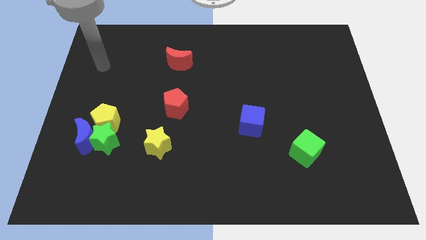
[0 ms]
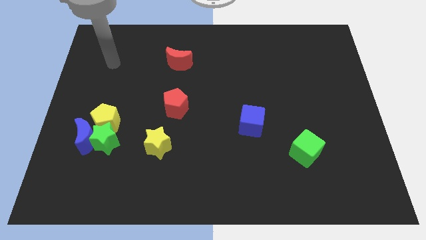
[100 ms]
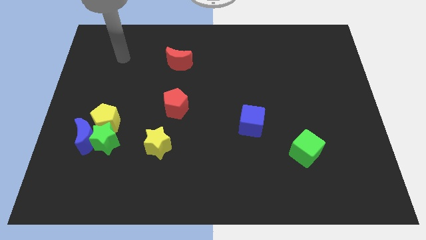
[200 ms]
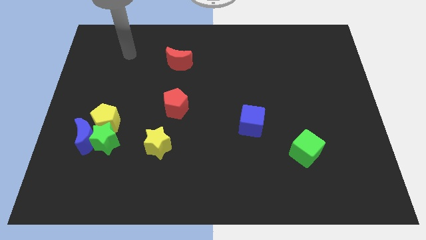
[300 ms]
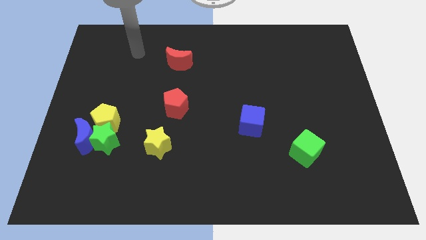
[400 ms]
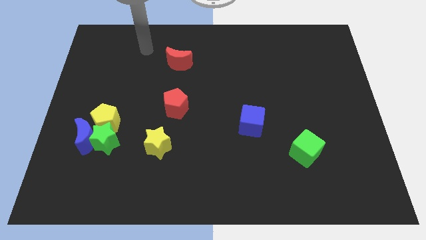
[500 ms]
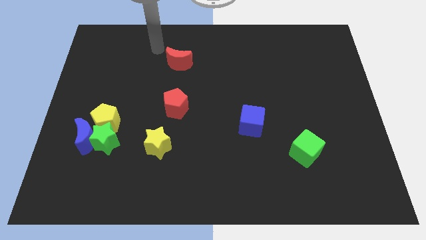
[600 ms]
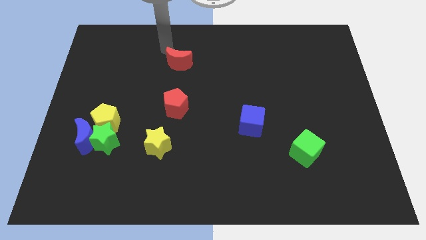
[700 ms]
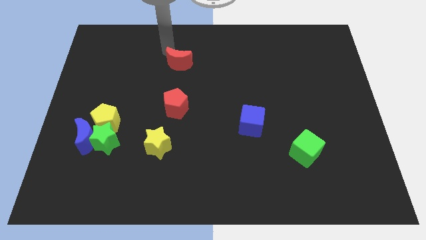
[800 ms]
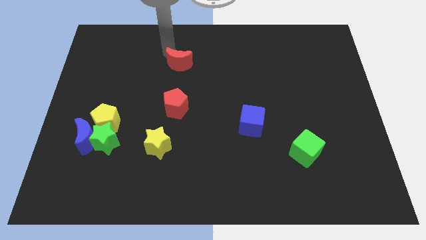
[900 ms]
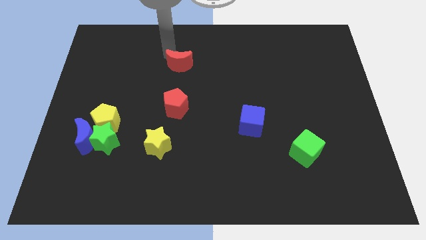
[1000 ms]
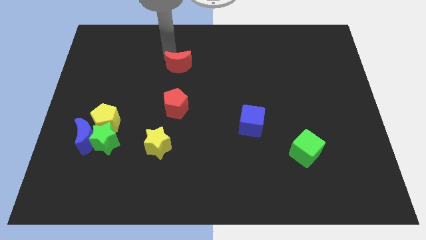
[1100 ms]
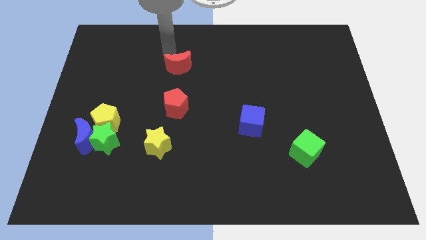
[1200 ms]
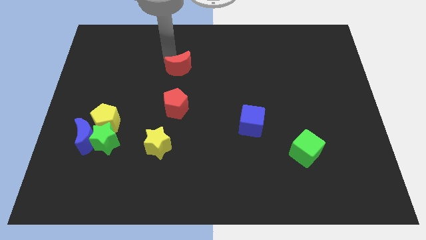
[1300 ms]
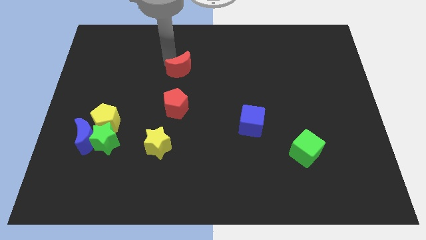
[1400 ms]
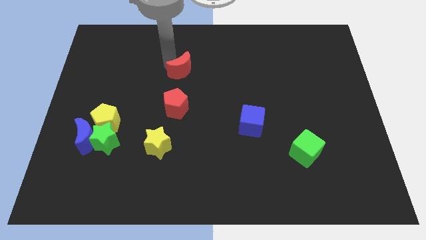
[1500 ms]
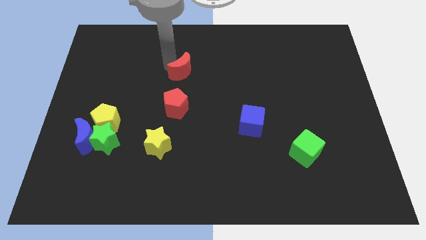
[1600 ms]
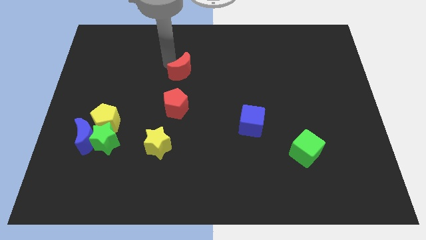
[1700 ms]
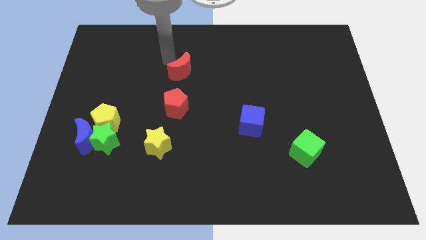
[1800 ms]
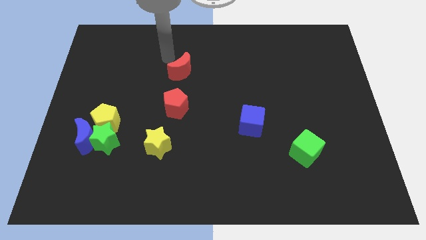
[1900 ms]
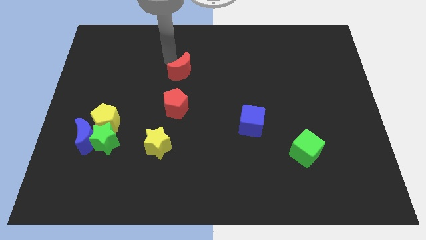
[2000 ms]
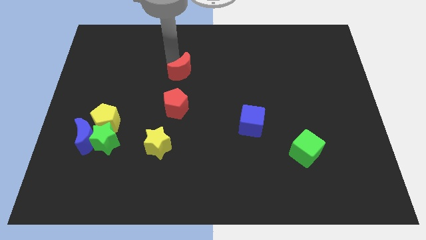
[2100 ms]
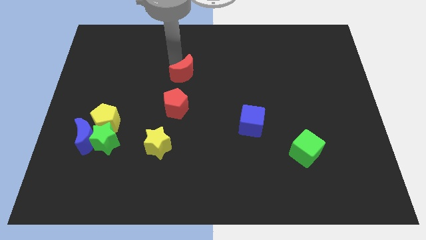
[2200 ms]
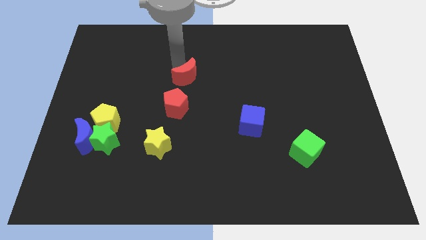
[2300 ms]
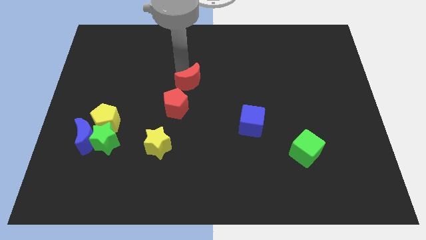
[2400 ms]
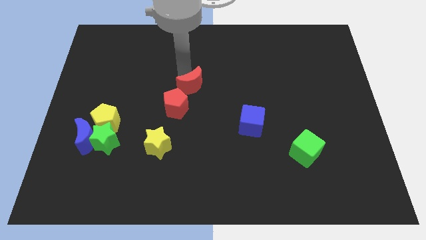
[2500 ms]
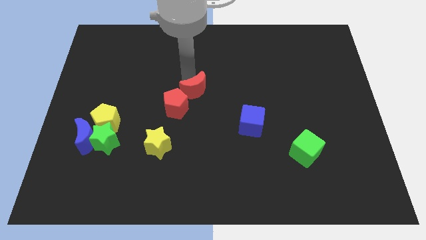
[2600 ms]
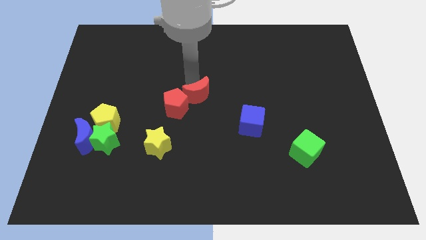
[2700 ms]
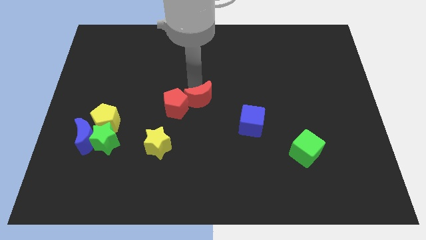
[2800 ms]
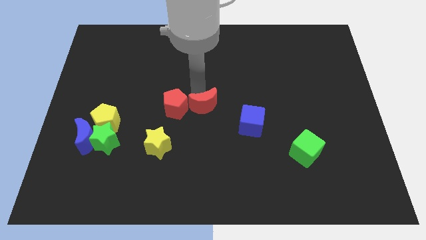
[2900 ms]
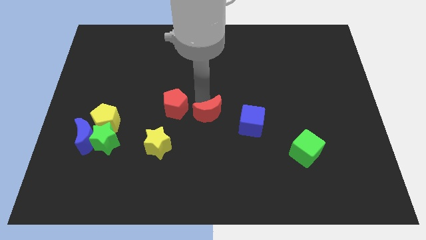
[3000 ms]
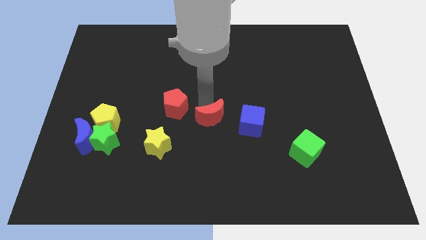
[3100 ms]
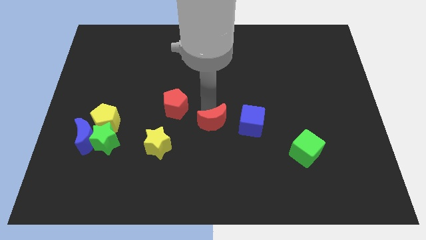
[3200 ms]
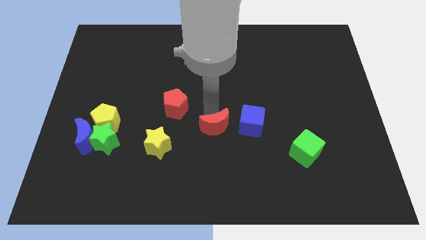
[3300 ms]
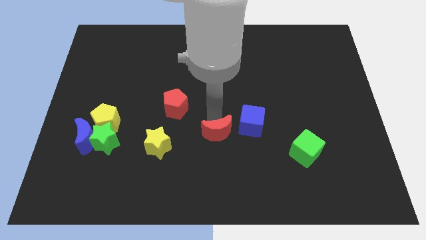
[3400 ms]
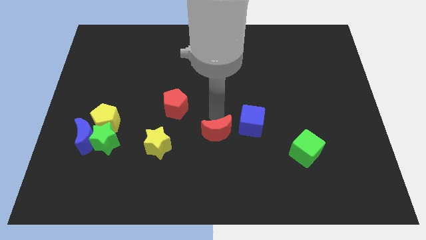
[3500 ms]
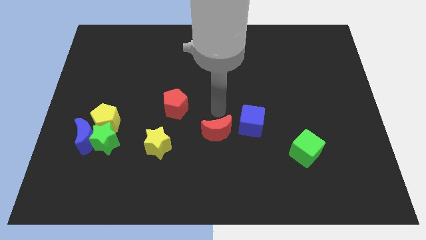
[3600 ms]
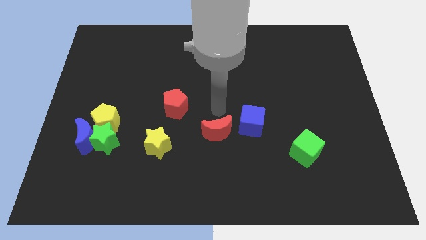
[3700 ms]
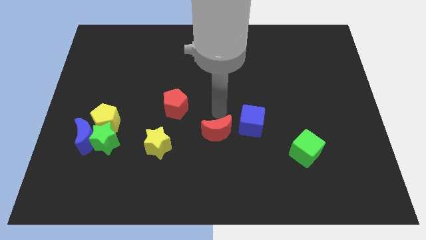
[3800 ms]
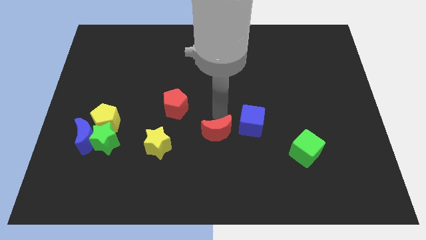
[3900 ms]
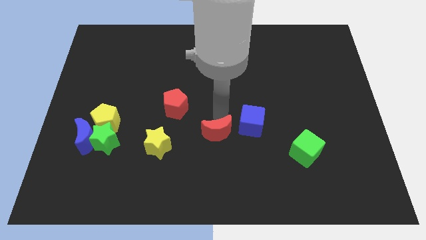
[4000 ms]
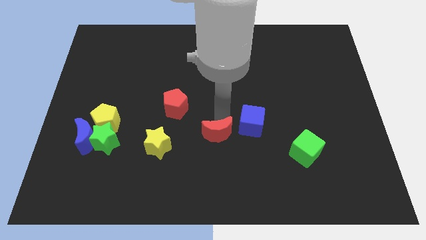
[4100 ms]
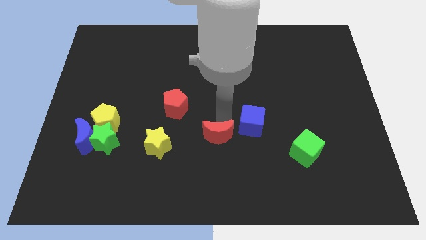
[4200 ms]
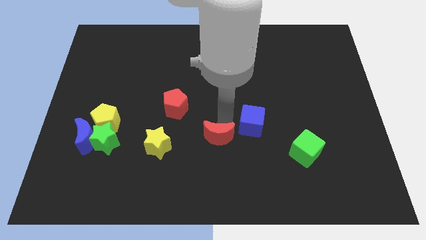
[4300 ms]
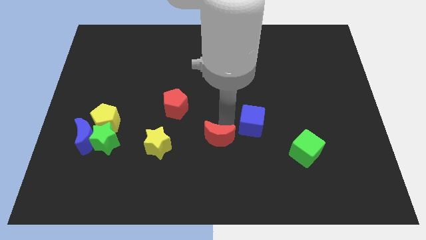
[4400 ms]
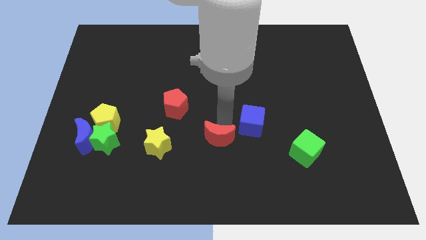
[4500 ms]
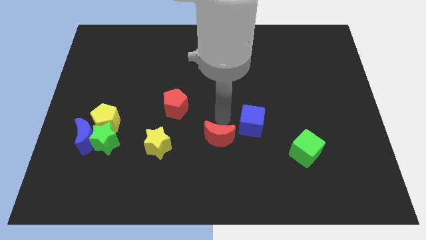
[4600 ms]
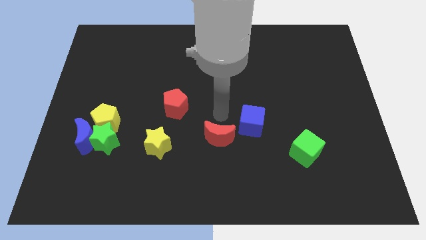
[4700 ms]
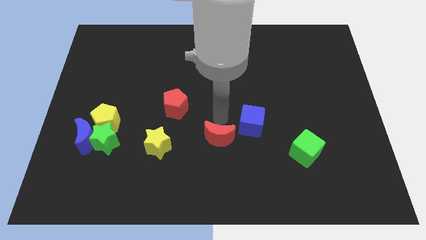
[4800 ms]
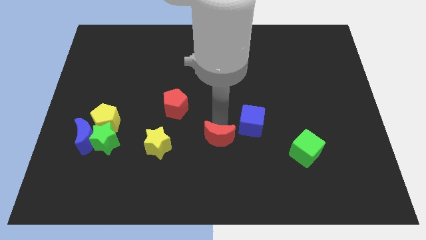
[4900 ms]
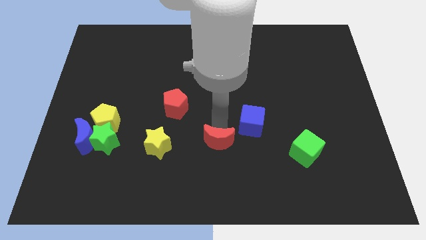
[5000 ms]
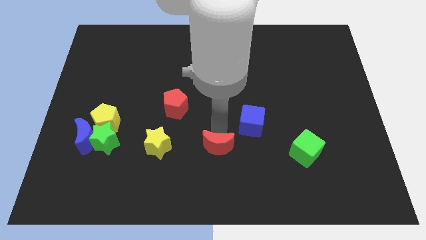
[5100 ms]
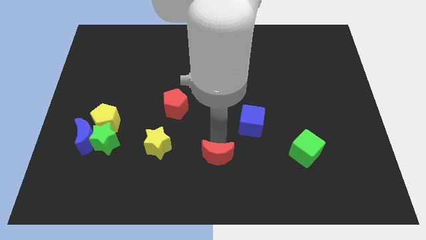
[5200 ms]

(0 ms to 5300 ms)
move the red moon to the bottom side

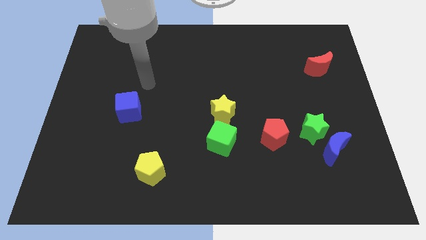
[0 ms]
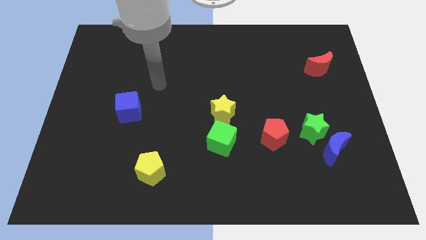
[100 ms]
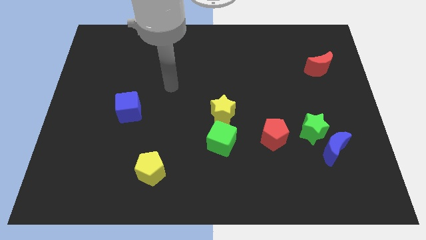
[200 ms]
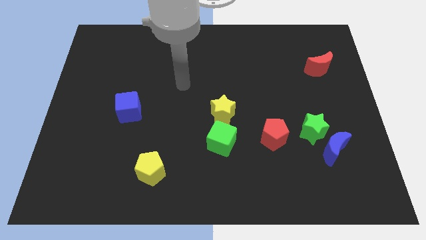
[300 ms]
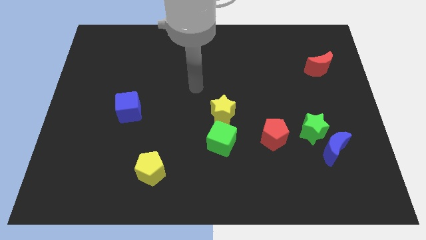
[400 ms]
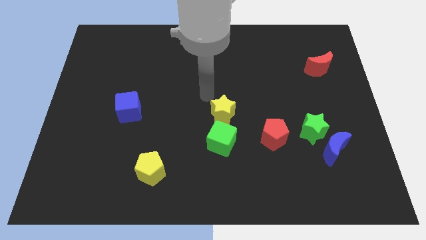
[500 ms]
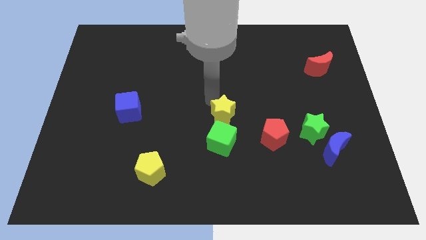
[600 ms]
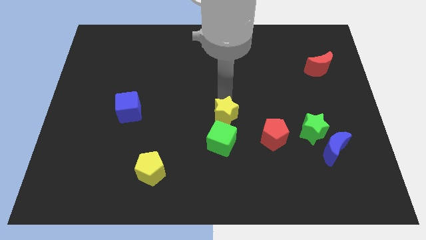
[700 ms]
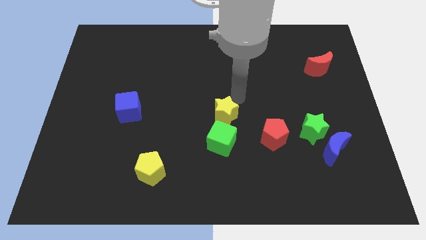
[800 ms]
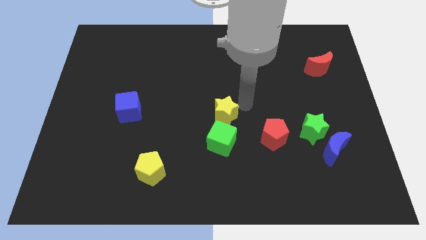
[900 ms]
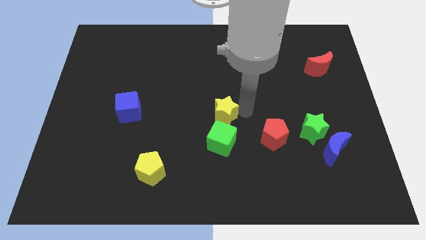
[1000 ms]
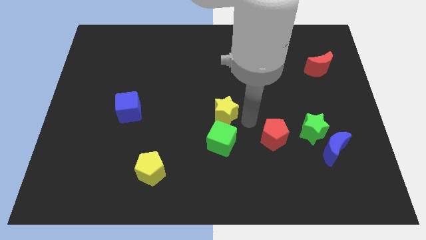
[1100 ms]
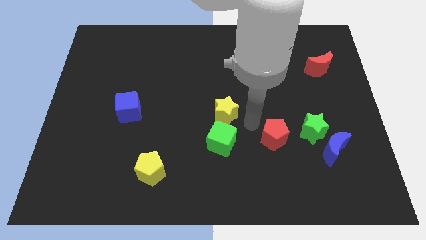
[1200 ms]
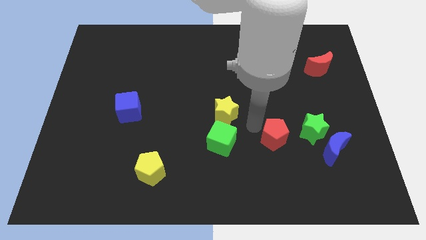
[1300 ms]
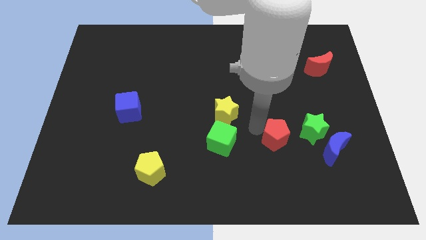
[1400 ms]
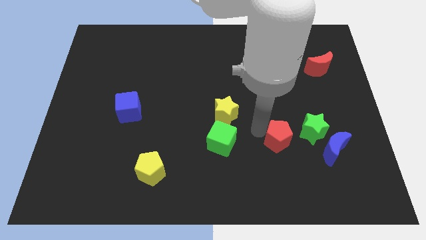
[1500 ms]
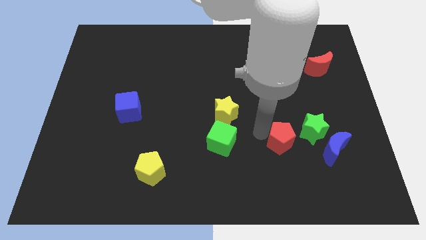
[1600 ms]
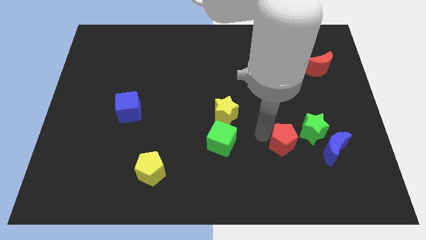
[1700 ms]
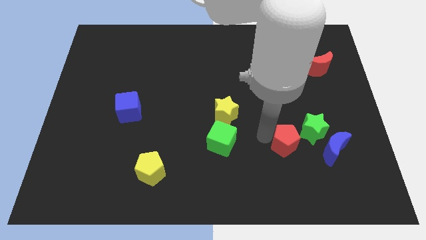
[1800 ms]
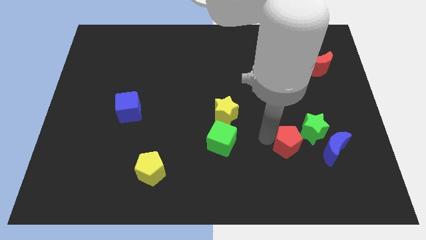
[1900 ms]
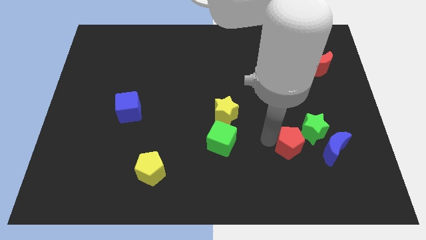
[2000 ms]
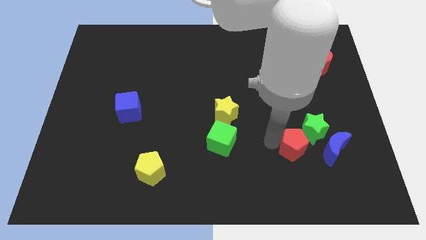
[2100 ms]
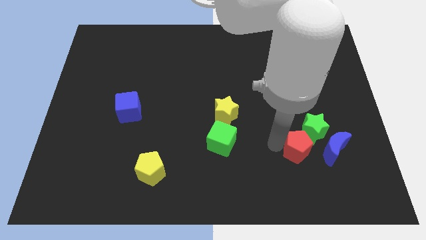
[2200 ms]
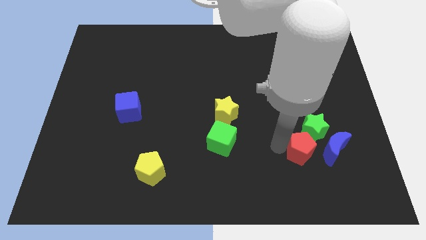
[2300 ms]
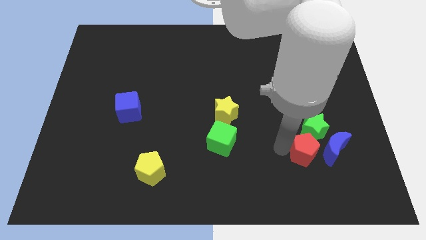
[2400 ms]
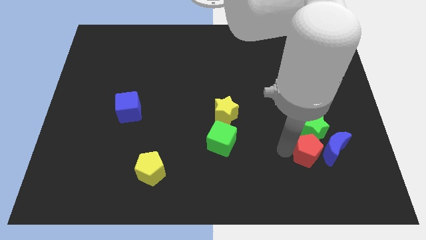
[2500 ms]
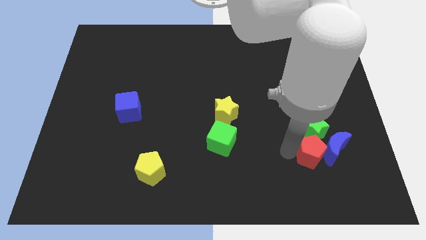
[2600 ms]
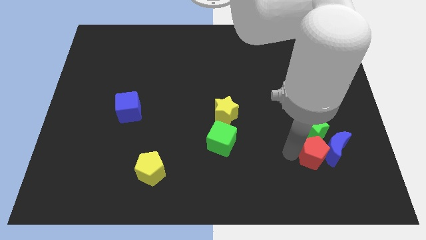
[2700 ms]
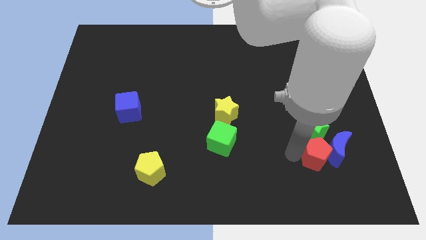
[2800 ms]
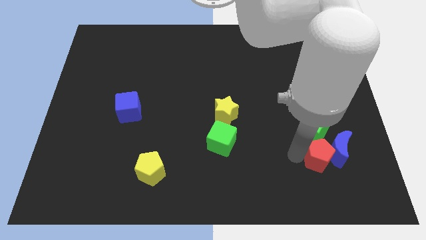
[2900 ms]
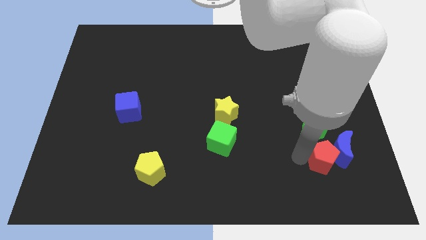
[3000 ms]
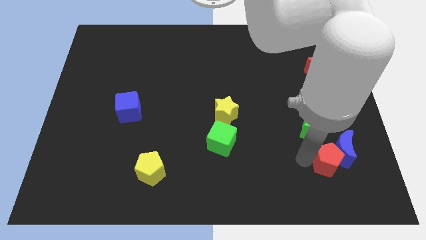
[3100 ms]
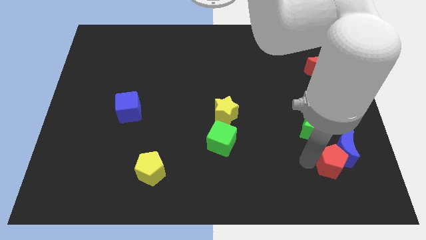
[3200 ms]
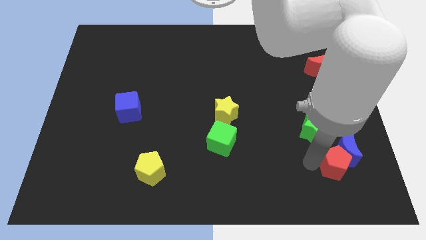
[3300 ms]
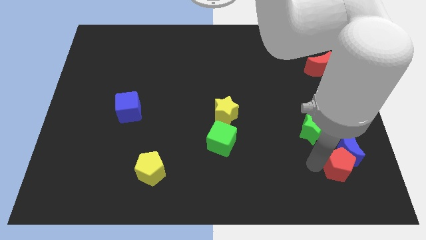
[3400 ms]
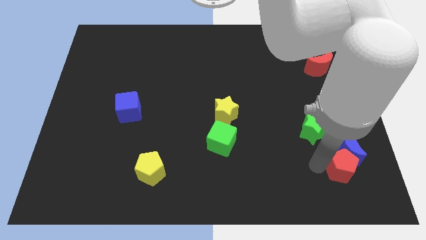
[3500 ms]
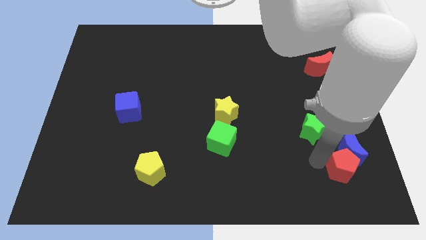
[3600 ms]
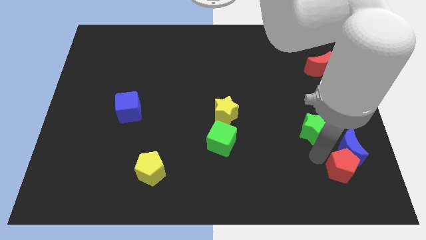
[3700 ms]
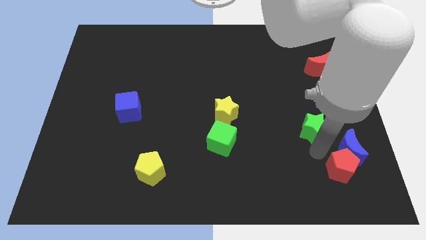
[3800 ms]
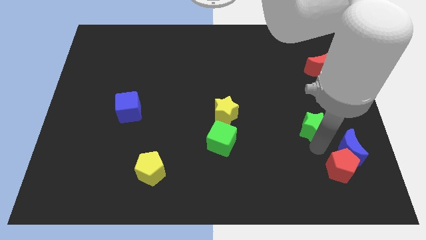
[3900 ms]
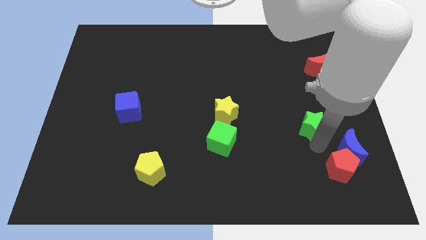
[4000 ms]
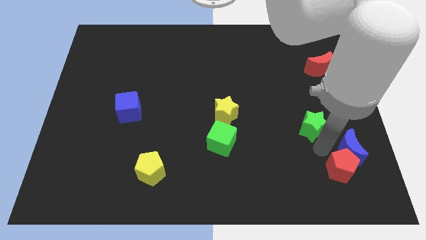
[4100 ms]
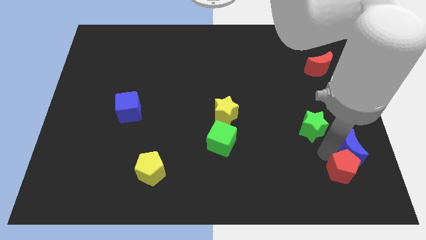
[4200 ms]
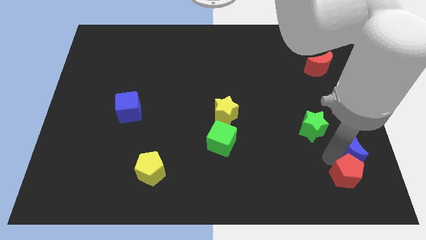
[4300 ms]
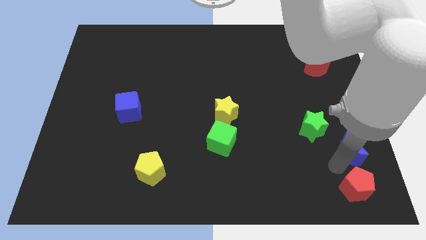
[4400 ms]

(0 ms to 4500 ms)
push the red pentagon to the lower right corner
